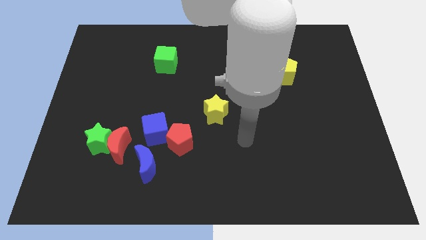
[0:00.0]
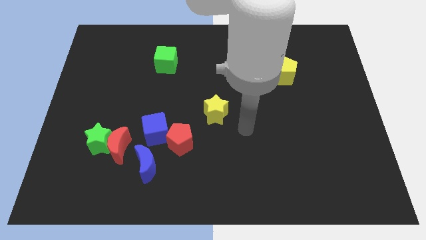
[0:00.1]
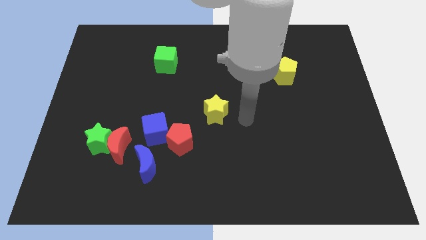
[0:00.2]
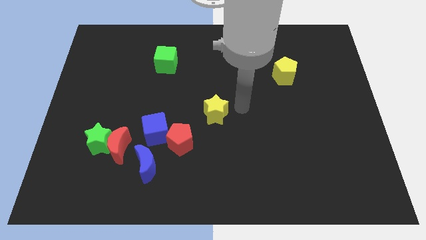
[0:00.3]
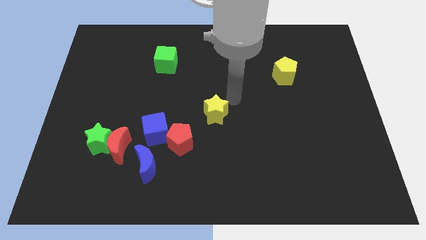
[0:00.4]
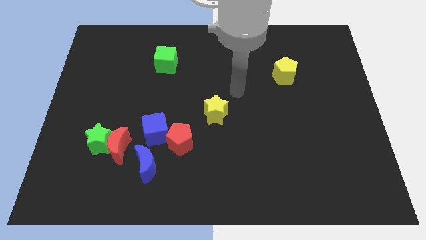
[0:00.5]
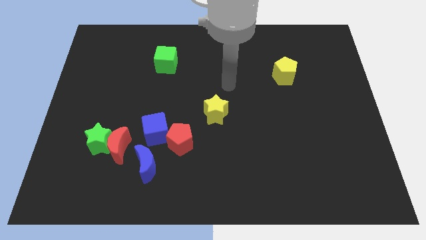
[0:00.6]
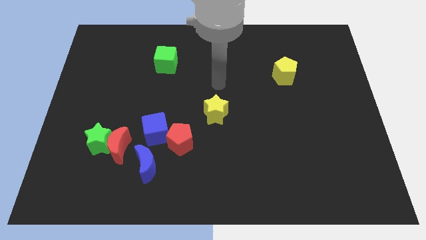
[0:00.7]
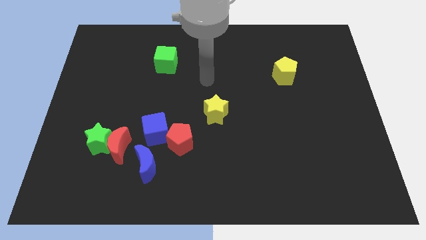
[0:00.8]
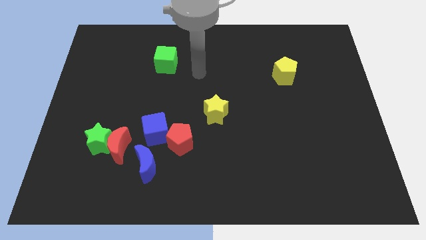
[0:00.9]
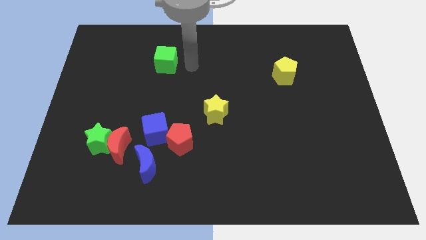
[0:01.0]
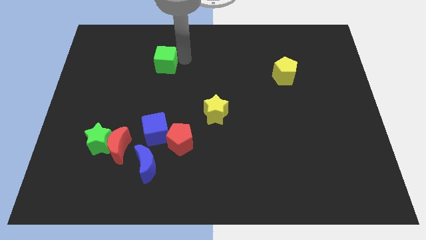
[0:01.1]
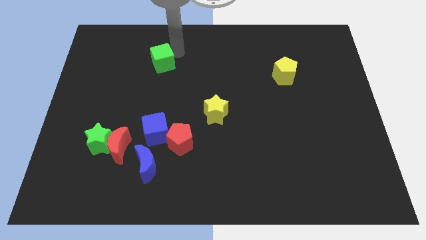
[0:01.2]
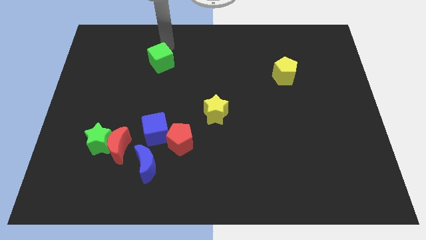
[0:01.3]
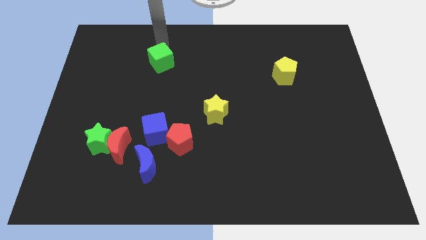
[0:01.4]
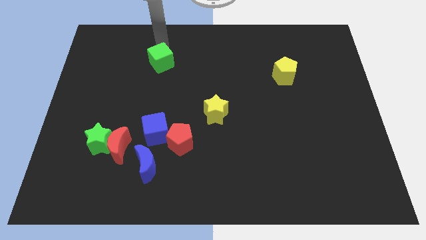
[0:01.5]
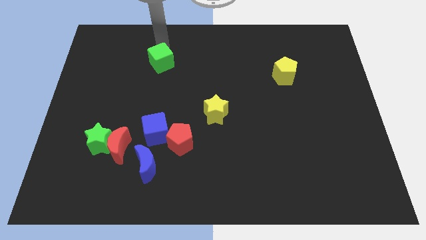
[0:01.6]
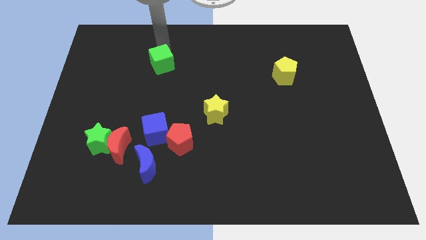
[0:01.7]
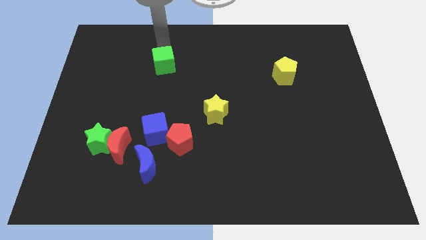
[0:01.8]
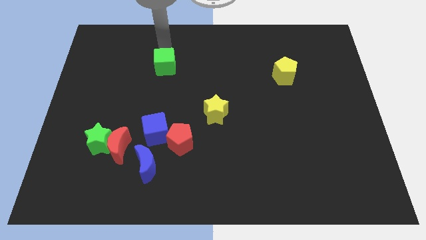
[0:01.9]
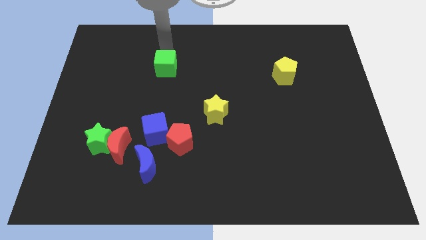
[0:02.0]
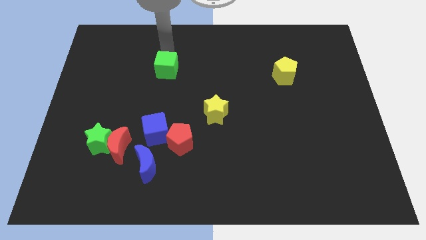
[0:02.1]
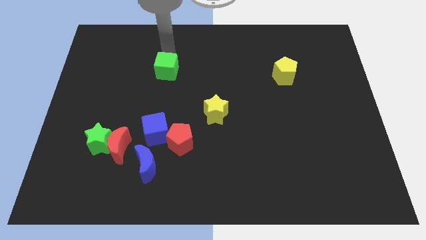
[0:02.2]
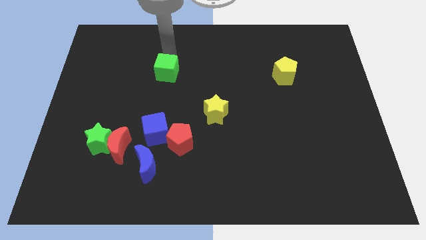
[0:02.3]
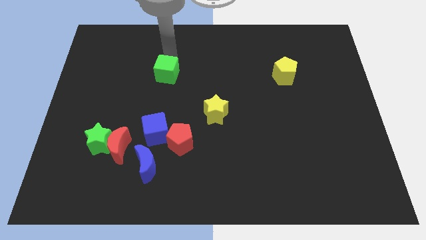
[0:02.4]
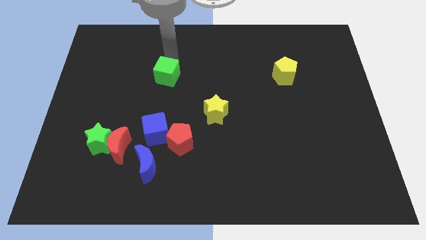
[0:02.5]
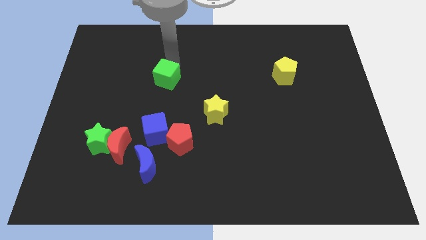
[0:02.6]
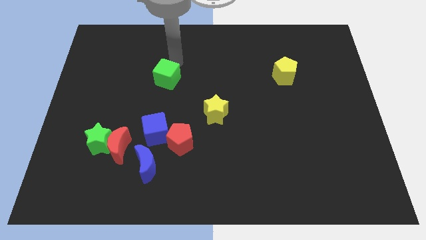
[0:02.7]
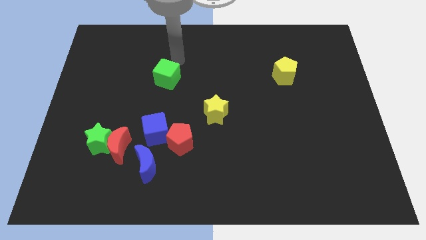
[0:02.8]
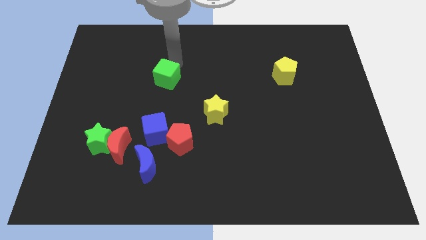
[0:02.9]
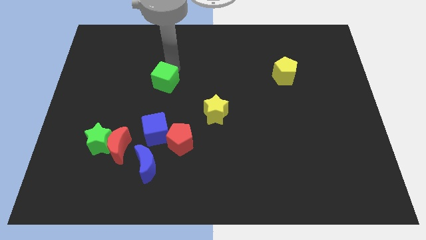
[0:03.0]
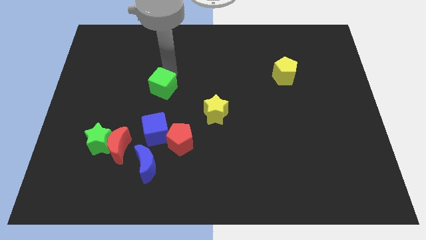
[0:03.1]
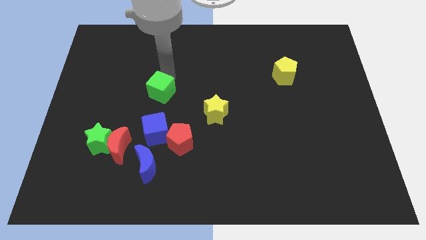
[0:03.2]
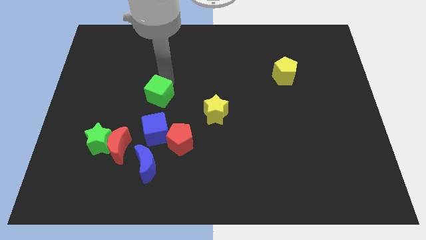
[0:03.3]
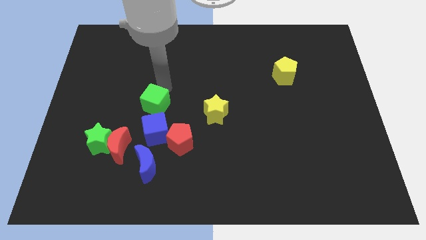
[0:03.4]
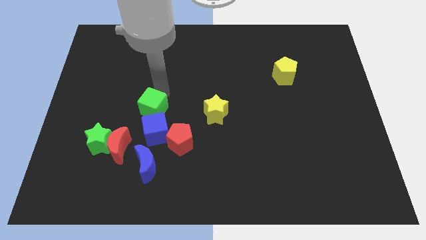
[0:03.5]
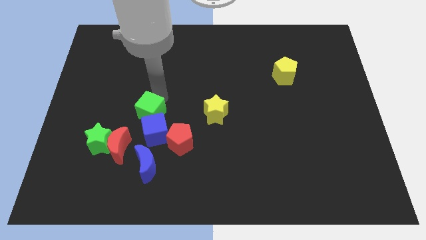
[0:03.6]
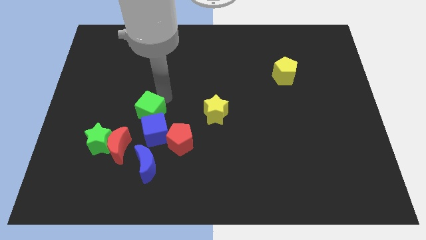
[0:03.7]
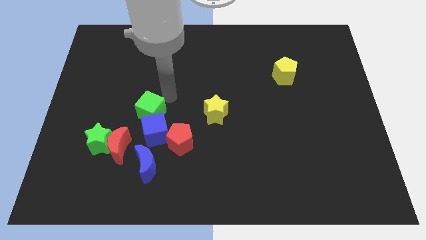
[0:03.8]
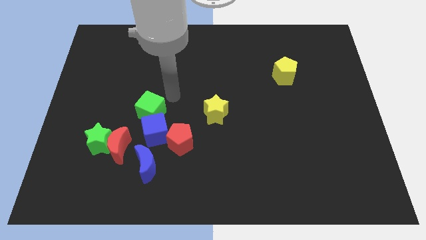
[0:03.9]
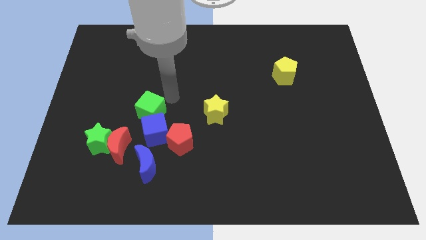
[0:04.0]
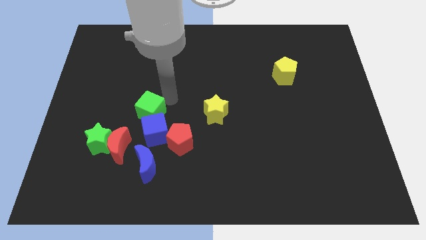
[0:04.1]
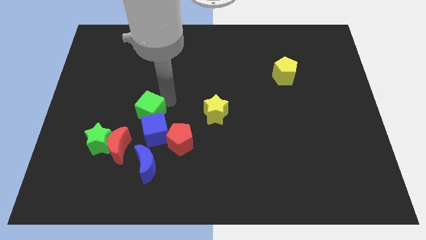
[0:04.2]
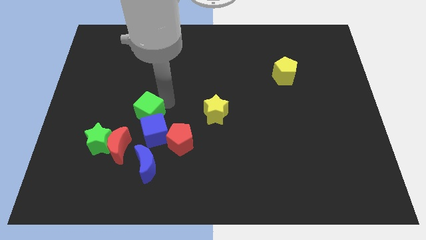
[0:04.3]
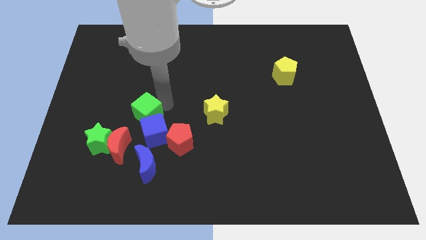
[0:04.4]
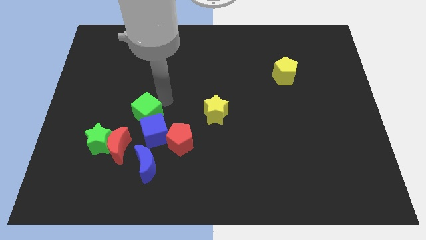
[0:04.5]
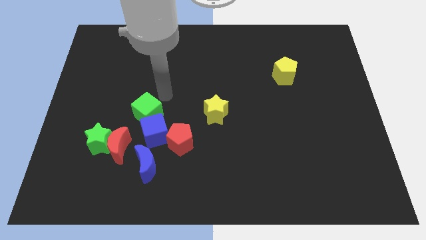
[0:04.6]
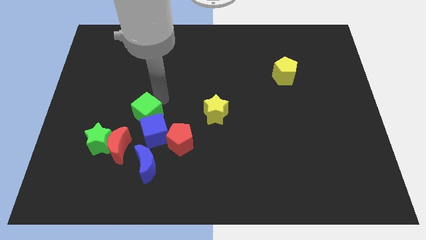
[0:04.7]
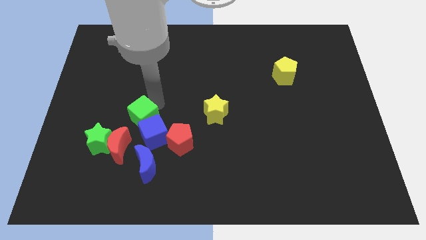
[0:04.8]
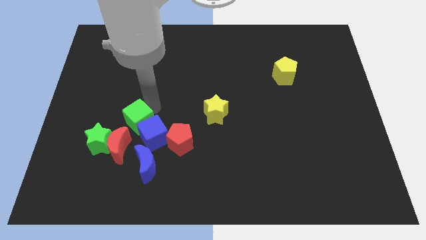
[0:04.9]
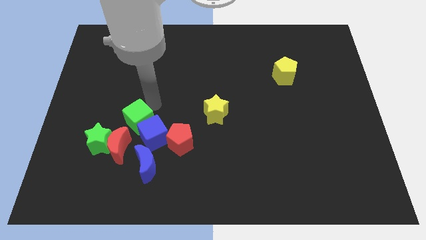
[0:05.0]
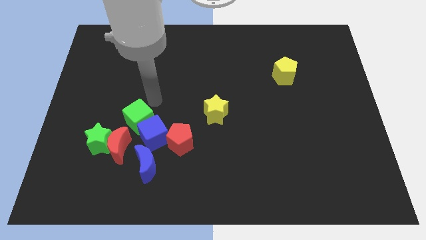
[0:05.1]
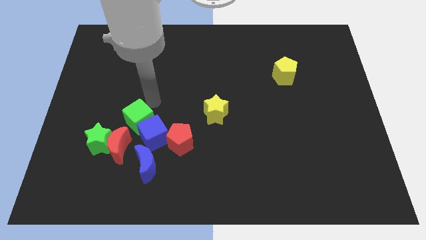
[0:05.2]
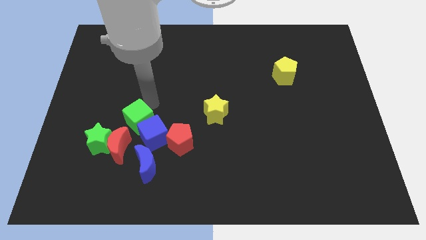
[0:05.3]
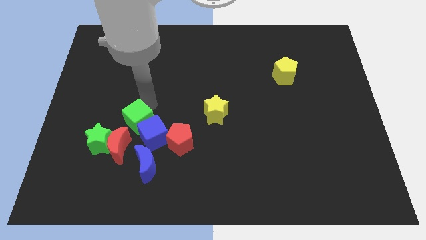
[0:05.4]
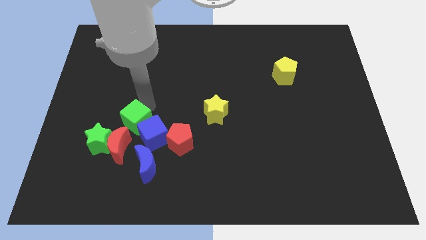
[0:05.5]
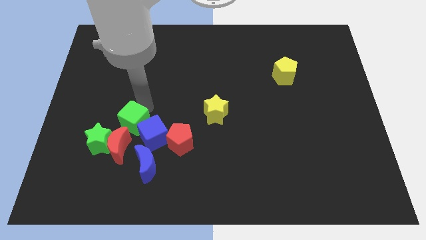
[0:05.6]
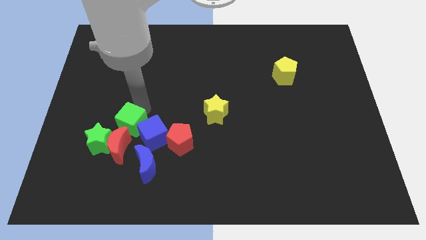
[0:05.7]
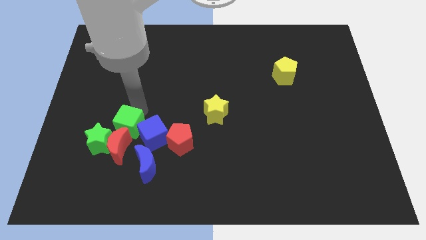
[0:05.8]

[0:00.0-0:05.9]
slide the green cube next to the red moon

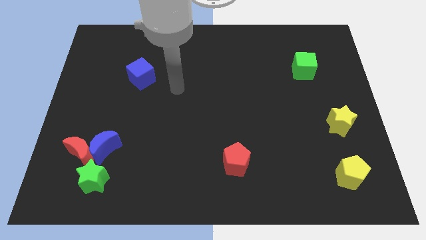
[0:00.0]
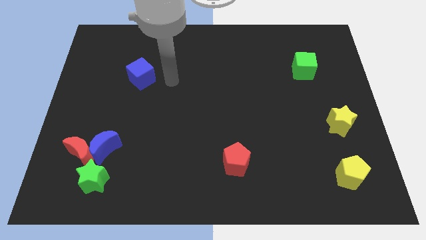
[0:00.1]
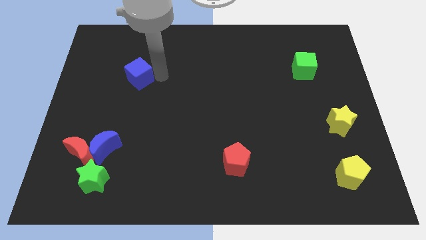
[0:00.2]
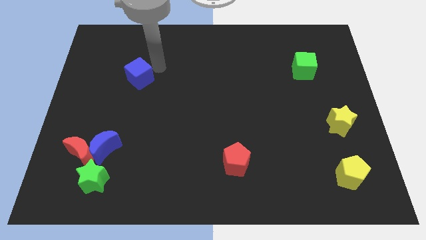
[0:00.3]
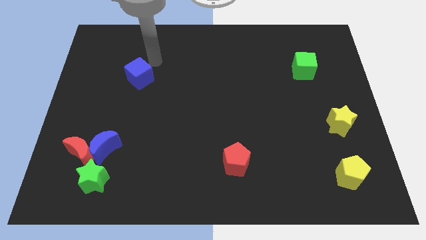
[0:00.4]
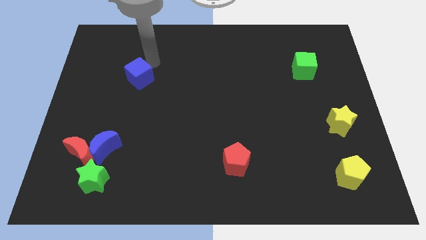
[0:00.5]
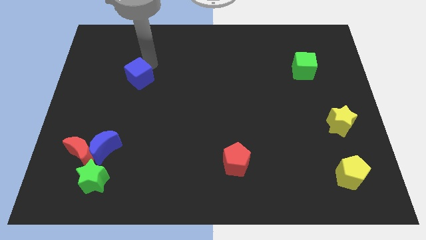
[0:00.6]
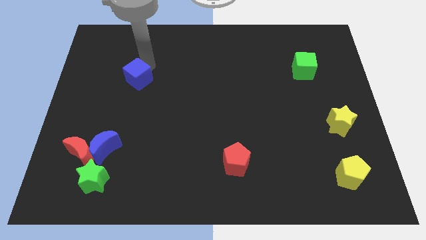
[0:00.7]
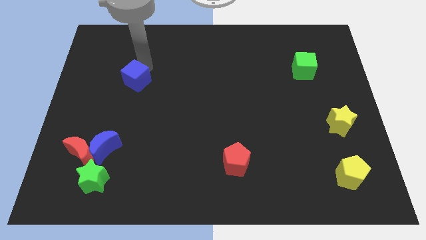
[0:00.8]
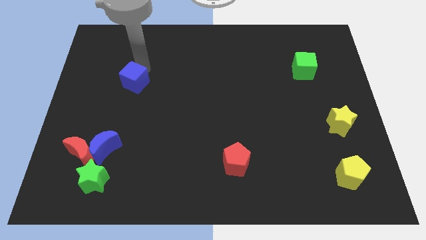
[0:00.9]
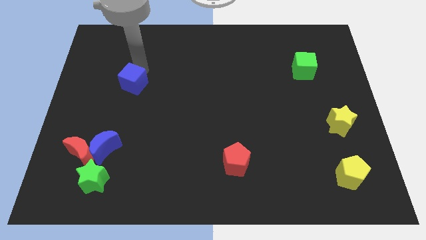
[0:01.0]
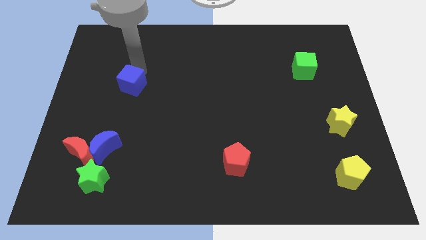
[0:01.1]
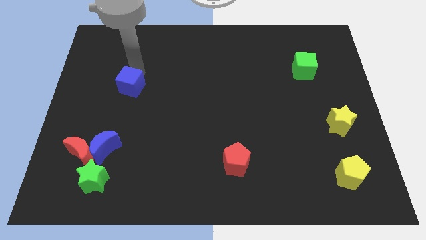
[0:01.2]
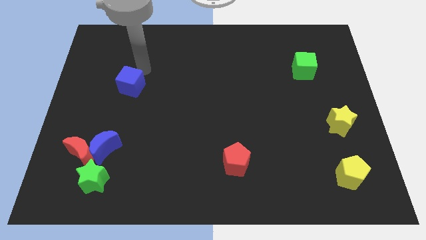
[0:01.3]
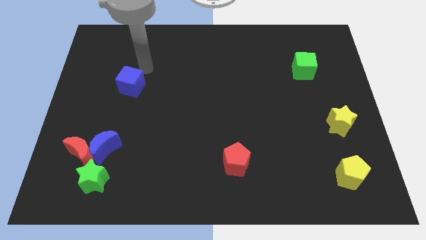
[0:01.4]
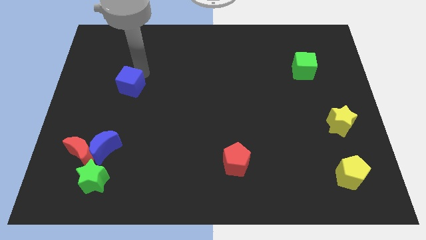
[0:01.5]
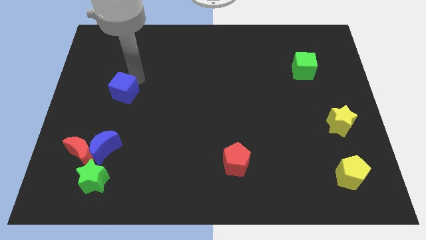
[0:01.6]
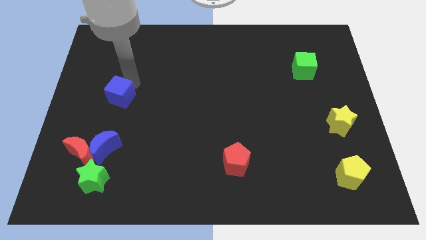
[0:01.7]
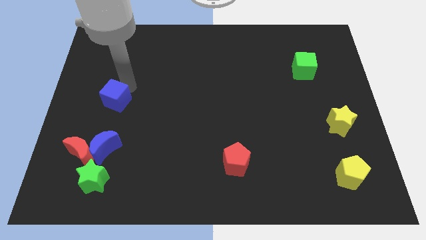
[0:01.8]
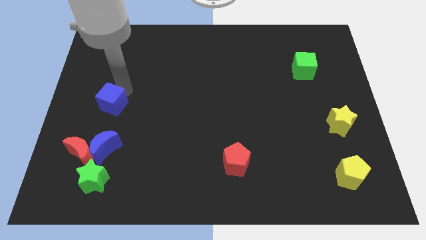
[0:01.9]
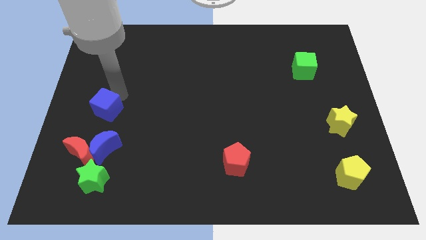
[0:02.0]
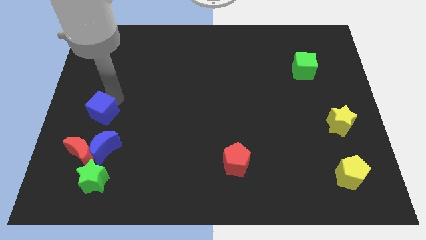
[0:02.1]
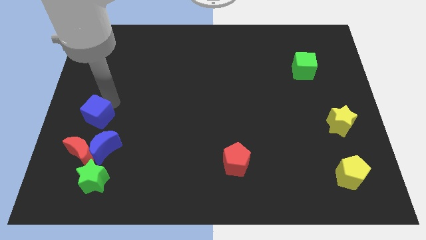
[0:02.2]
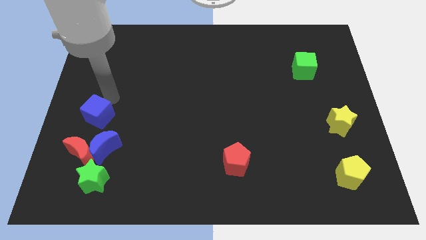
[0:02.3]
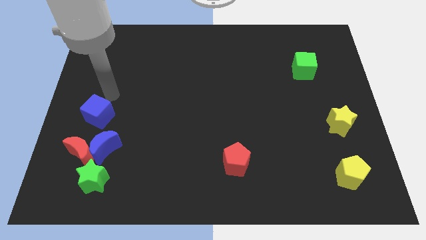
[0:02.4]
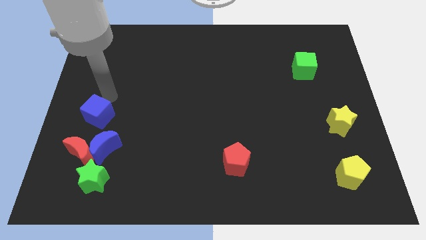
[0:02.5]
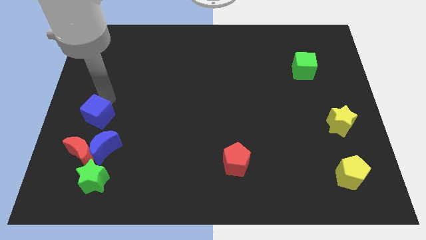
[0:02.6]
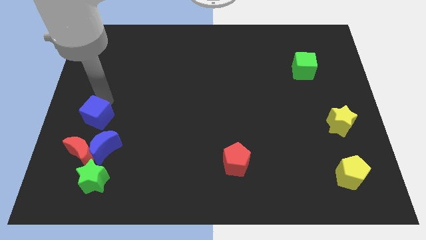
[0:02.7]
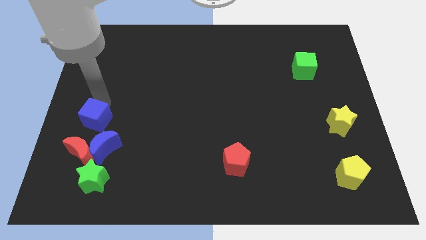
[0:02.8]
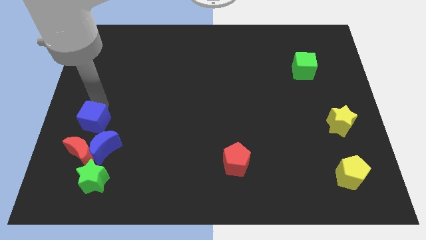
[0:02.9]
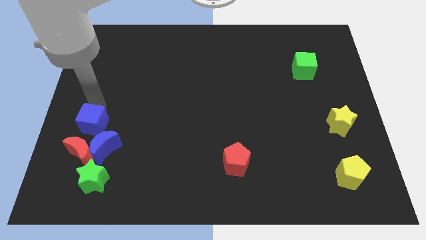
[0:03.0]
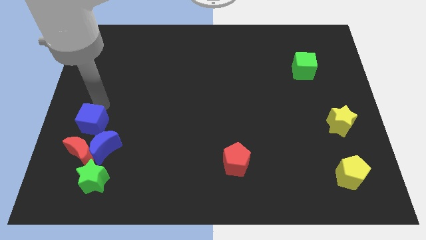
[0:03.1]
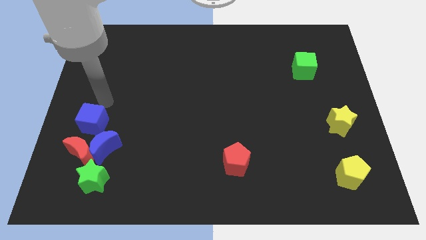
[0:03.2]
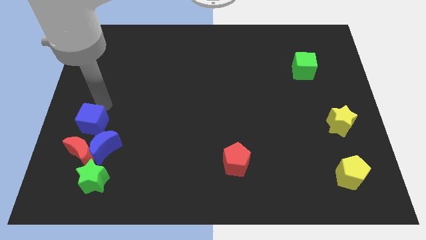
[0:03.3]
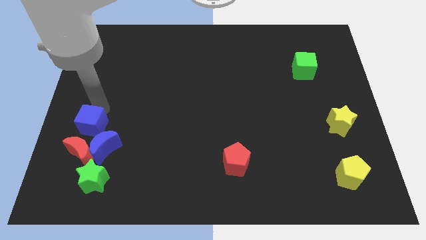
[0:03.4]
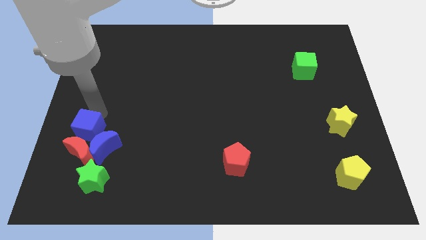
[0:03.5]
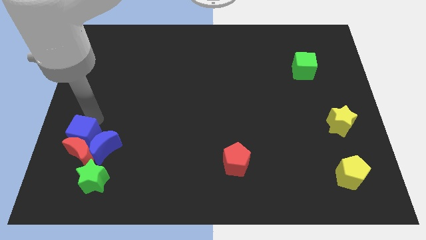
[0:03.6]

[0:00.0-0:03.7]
slide the blue cube close to the red moon
